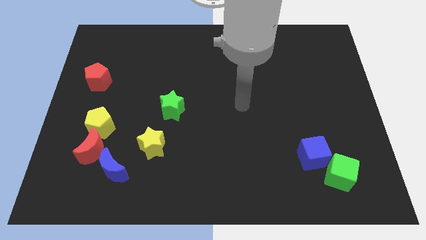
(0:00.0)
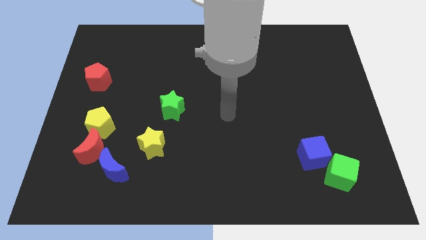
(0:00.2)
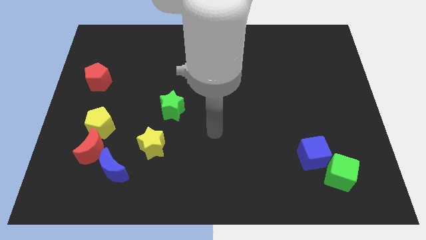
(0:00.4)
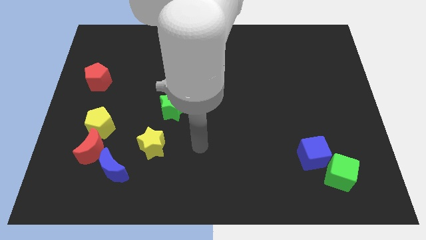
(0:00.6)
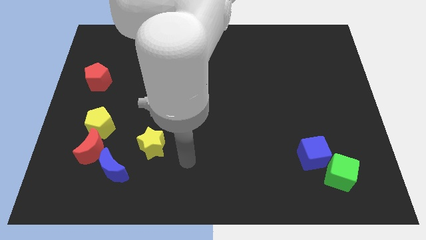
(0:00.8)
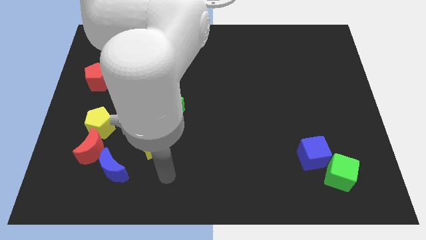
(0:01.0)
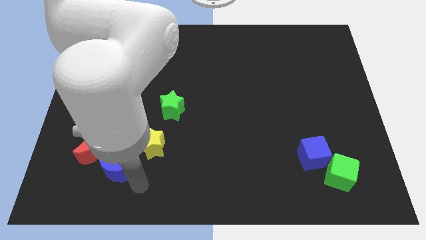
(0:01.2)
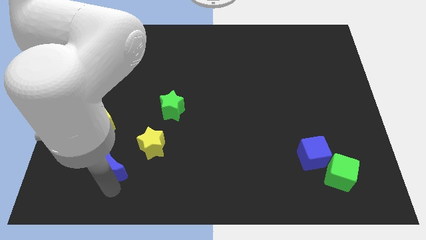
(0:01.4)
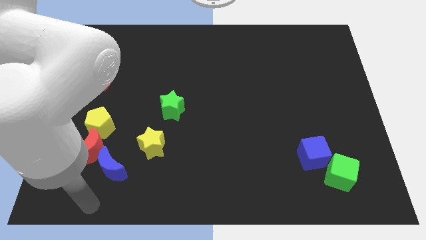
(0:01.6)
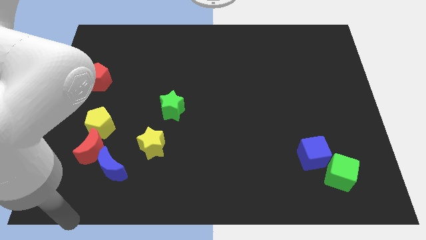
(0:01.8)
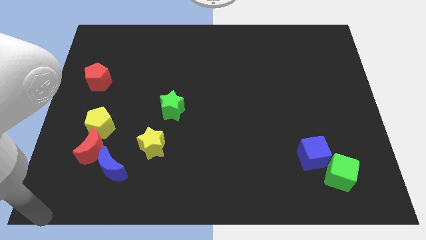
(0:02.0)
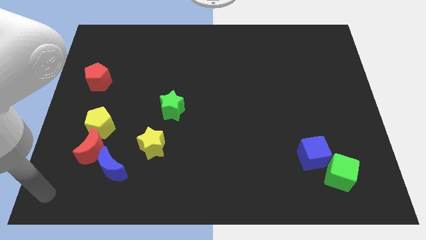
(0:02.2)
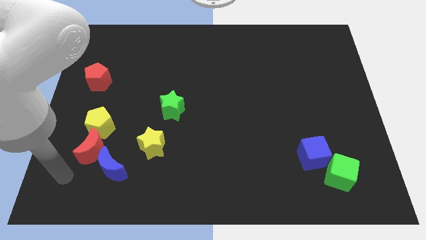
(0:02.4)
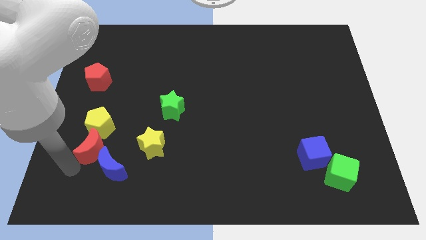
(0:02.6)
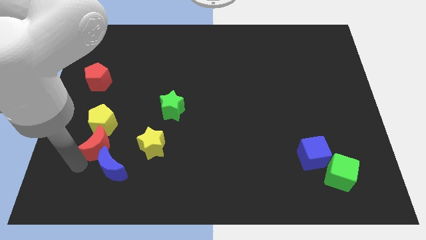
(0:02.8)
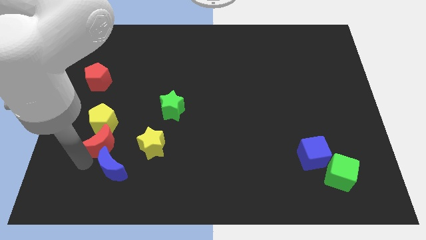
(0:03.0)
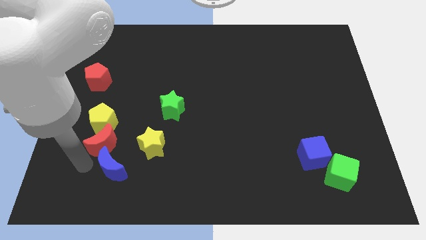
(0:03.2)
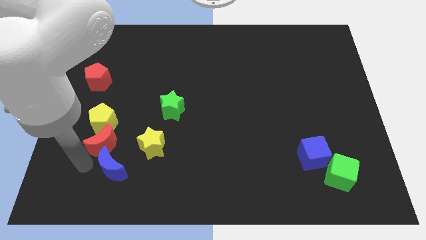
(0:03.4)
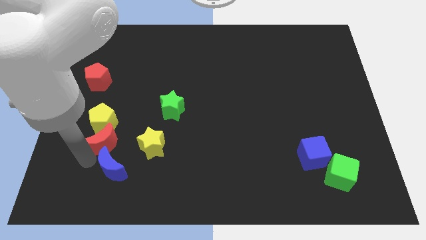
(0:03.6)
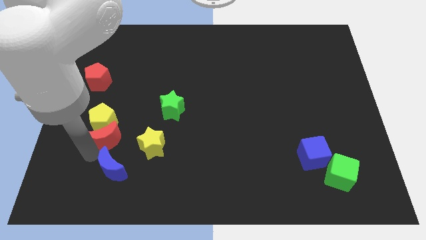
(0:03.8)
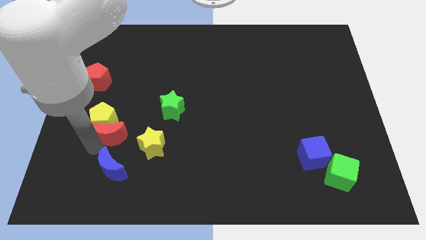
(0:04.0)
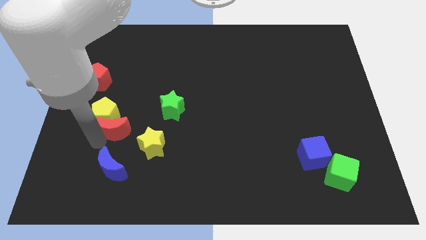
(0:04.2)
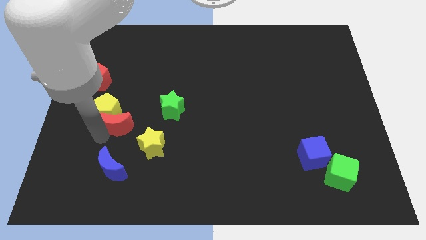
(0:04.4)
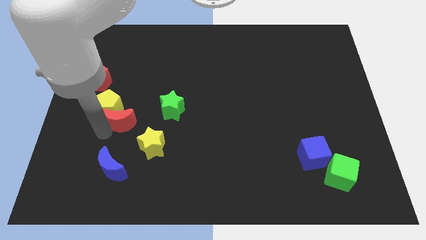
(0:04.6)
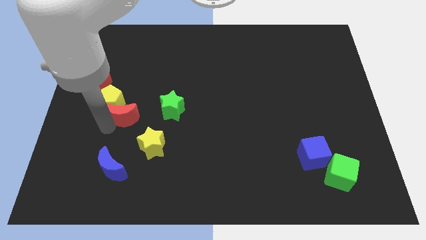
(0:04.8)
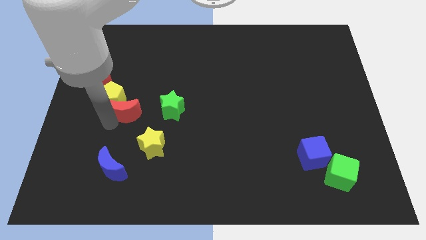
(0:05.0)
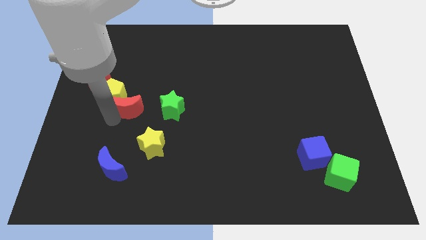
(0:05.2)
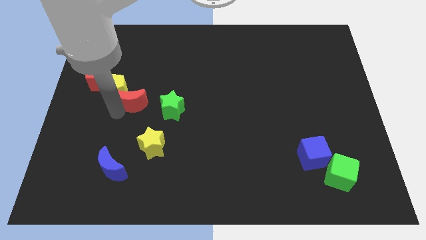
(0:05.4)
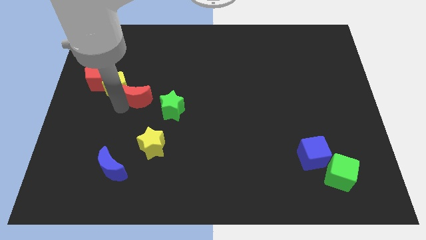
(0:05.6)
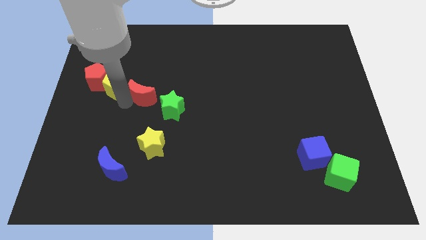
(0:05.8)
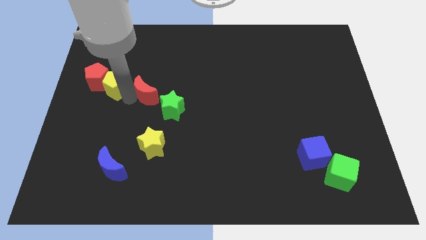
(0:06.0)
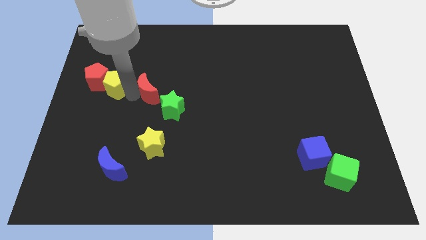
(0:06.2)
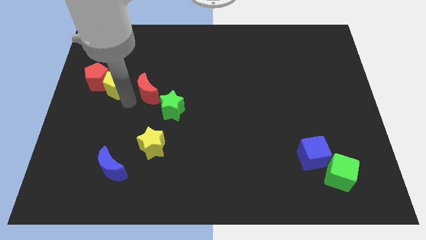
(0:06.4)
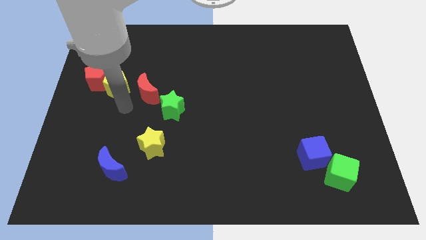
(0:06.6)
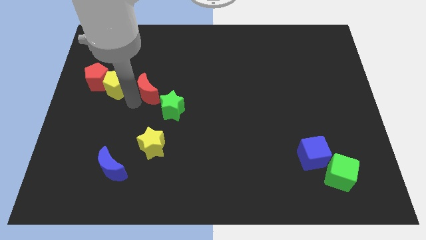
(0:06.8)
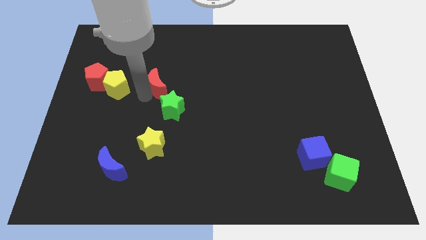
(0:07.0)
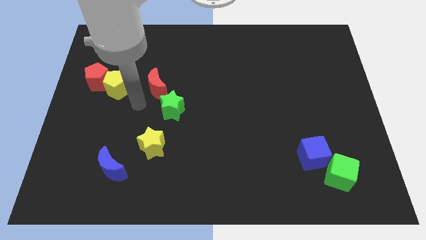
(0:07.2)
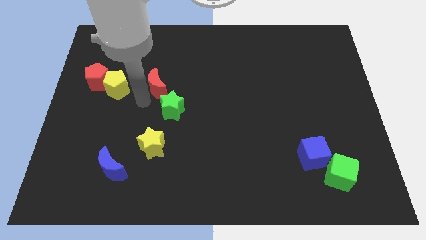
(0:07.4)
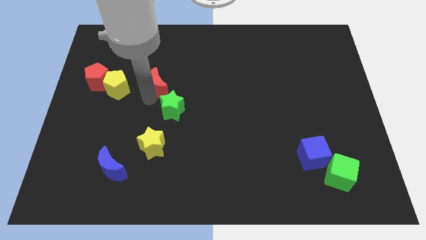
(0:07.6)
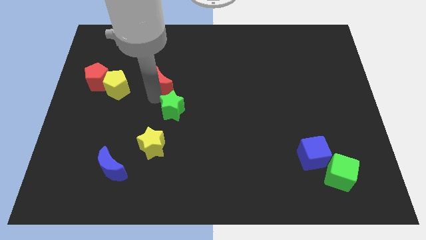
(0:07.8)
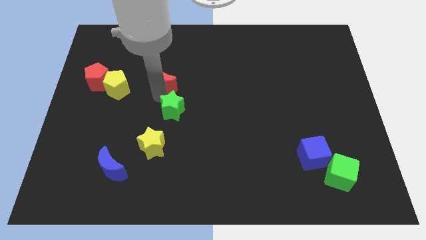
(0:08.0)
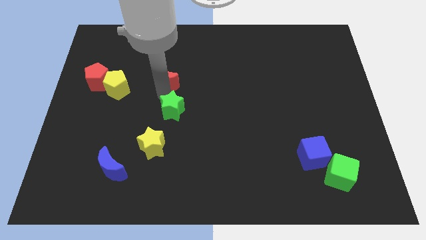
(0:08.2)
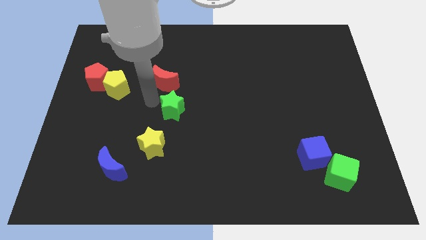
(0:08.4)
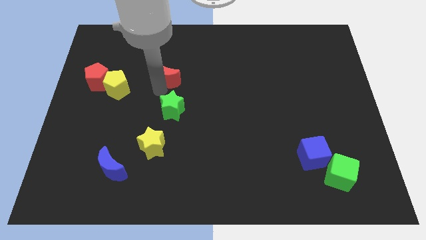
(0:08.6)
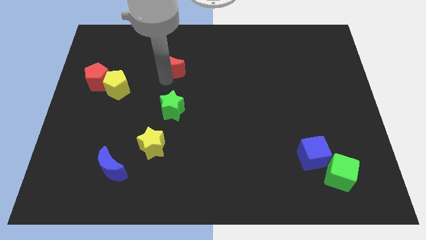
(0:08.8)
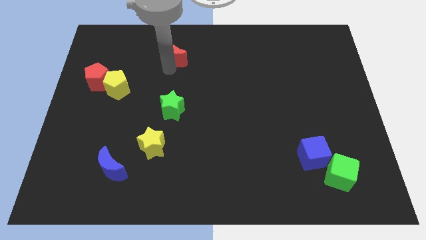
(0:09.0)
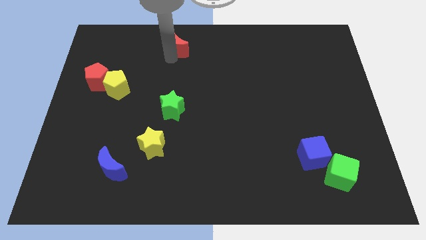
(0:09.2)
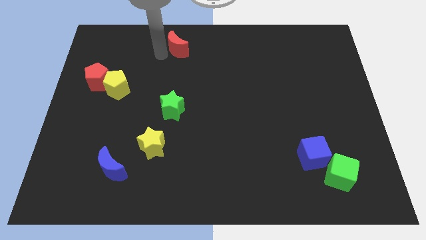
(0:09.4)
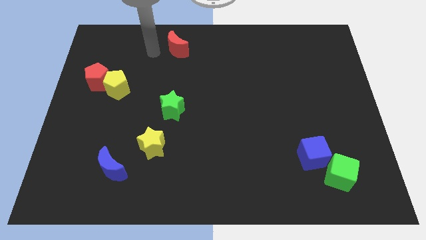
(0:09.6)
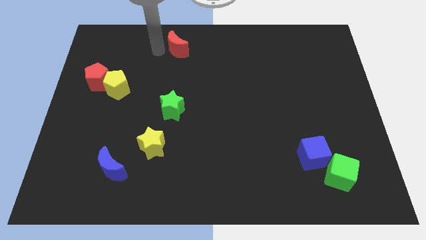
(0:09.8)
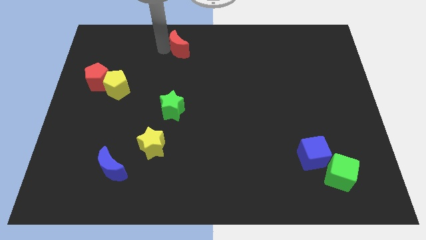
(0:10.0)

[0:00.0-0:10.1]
slide the red moon to the towards your base

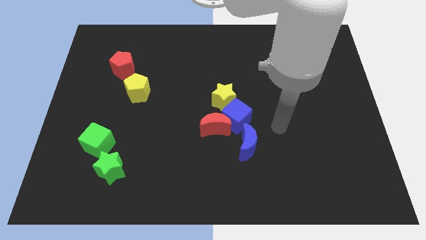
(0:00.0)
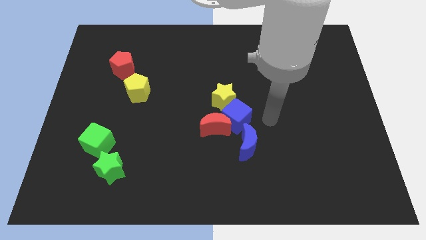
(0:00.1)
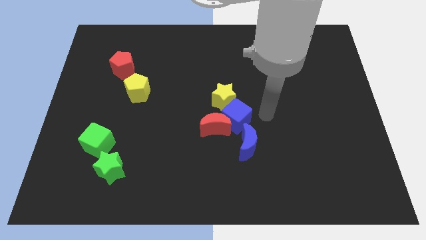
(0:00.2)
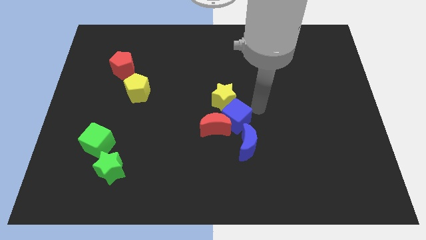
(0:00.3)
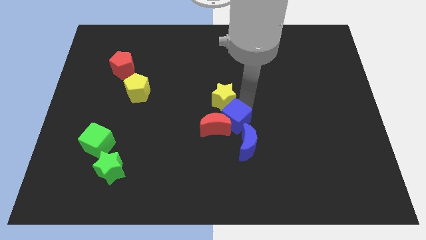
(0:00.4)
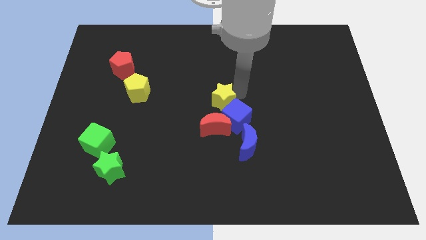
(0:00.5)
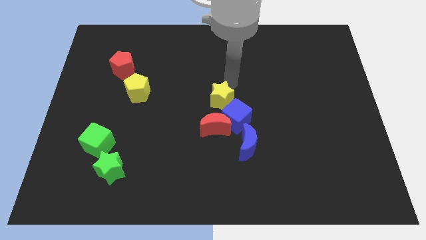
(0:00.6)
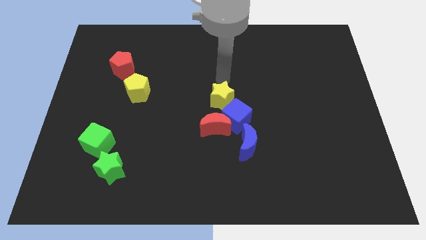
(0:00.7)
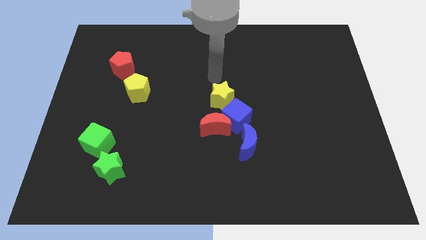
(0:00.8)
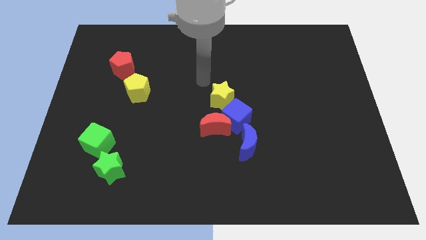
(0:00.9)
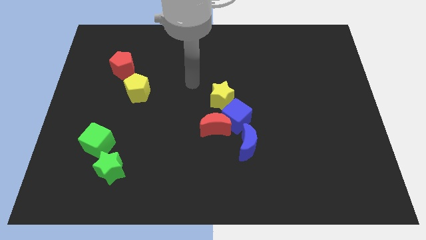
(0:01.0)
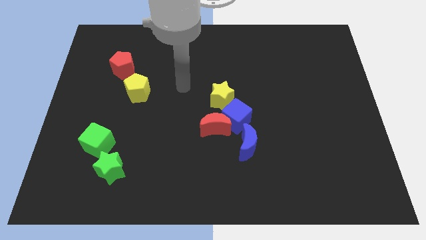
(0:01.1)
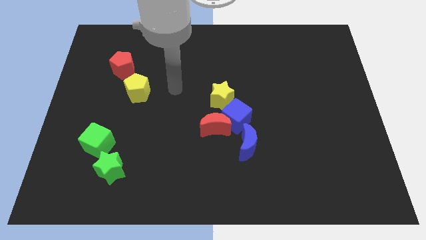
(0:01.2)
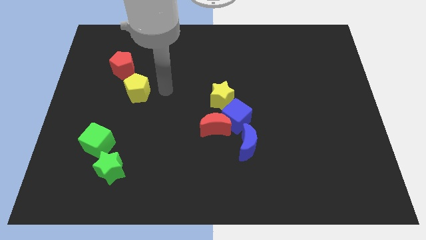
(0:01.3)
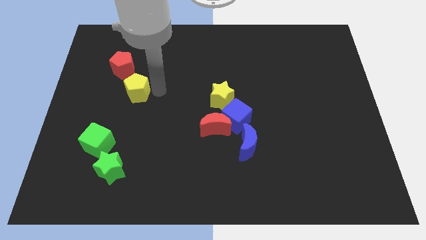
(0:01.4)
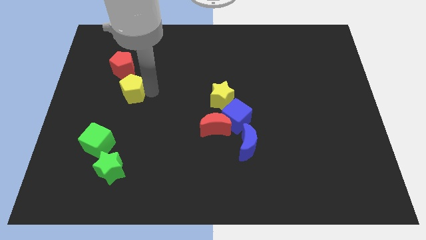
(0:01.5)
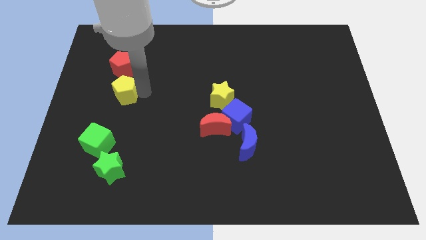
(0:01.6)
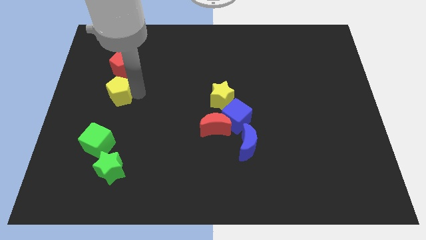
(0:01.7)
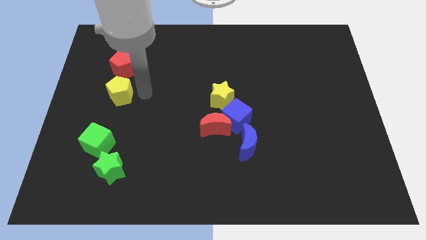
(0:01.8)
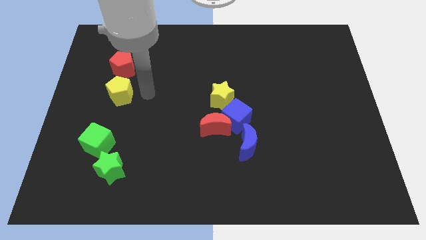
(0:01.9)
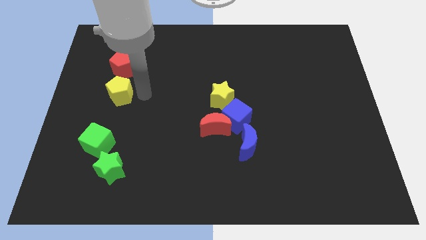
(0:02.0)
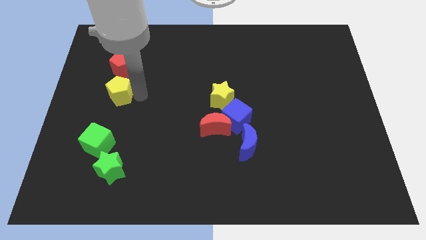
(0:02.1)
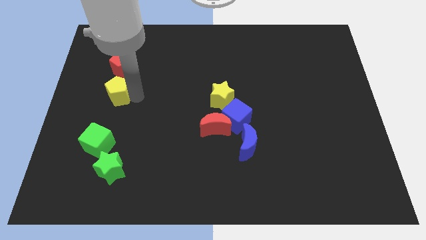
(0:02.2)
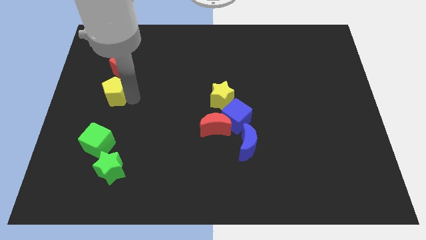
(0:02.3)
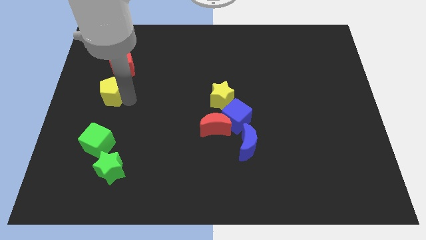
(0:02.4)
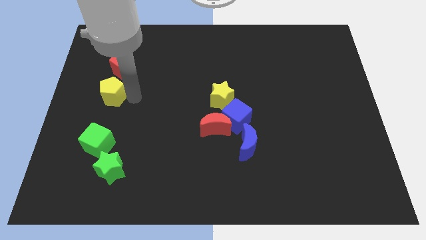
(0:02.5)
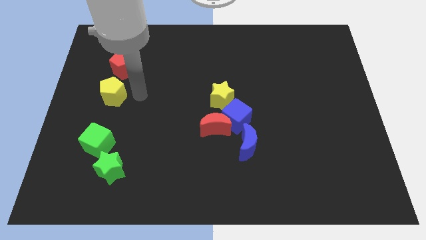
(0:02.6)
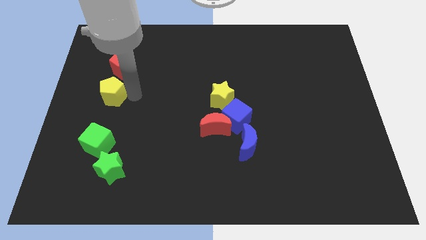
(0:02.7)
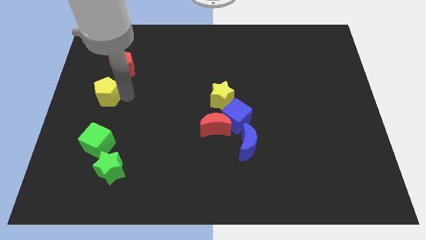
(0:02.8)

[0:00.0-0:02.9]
put the yellow pentagon to the left side of the board

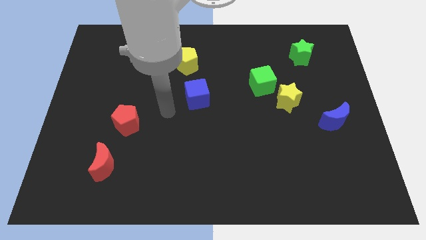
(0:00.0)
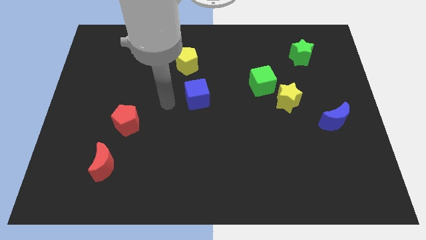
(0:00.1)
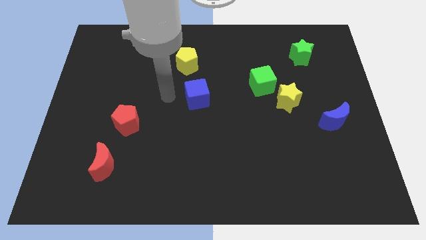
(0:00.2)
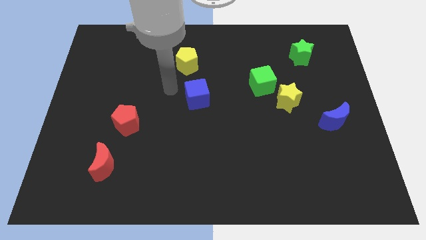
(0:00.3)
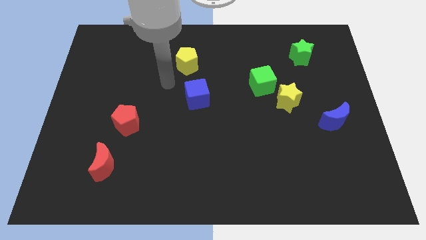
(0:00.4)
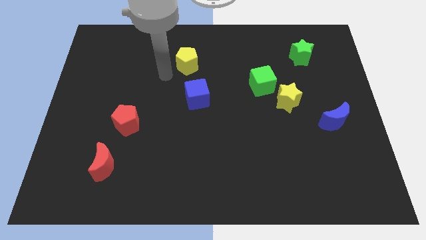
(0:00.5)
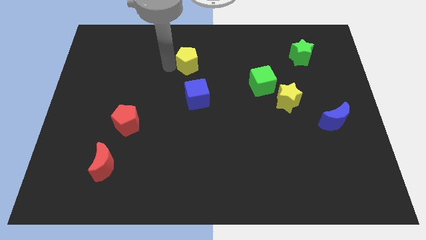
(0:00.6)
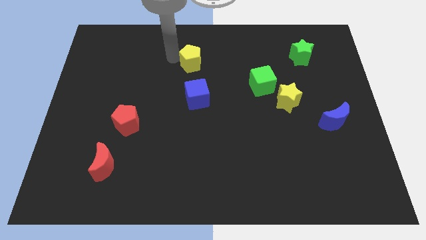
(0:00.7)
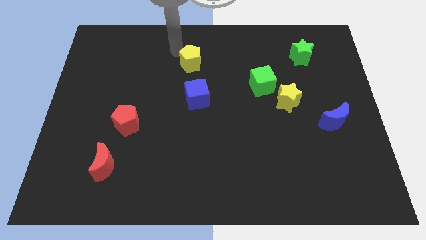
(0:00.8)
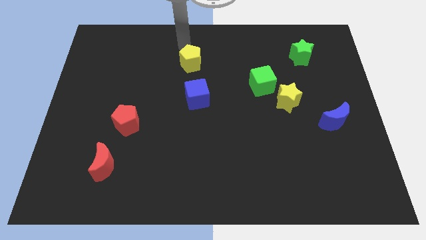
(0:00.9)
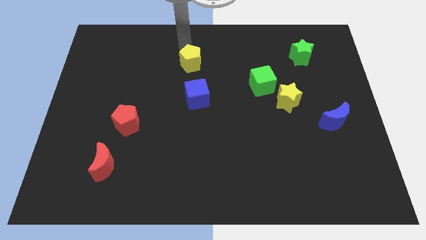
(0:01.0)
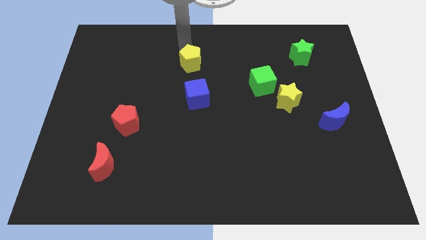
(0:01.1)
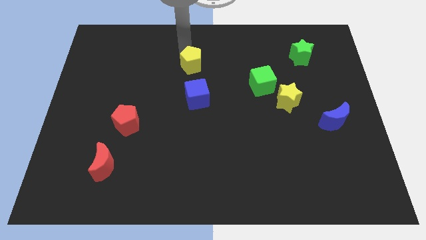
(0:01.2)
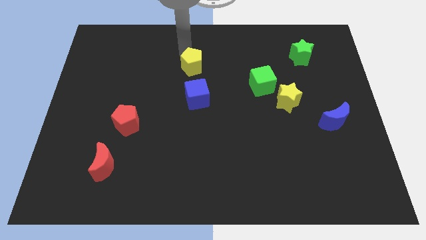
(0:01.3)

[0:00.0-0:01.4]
move the yellow pentagon to the center of the board
